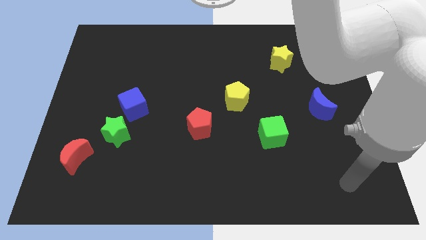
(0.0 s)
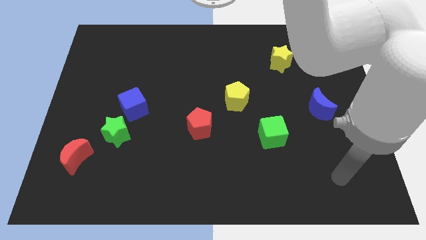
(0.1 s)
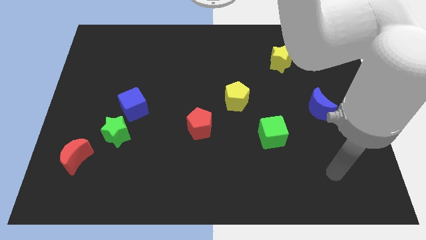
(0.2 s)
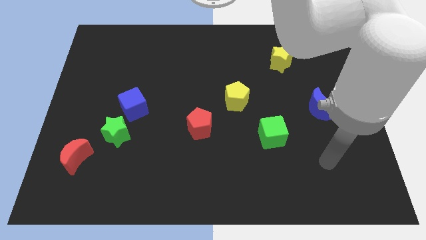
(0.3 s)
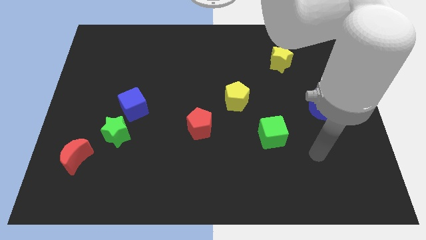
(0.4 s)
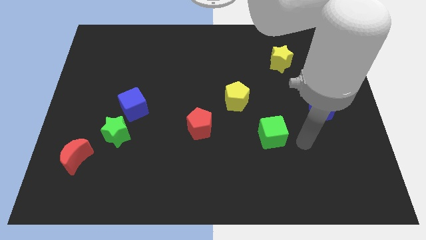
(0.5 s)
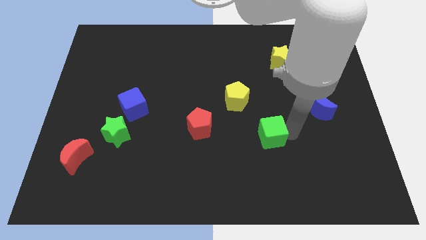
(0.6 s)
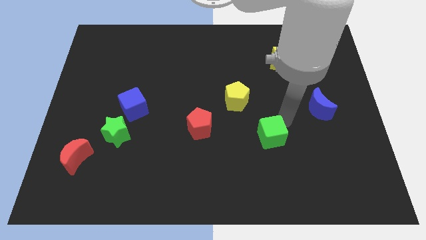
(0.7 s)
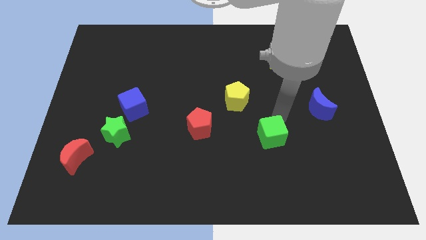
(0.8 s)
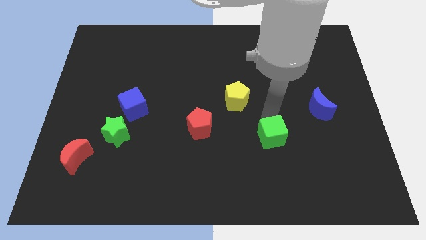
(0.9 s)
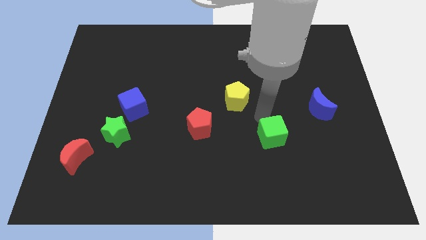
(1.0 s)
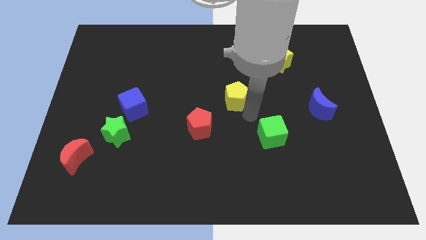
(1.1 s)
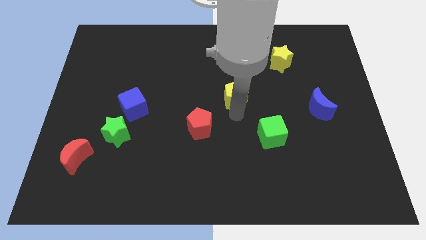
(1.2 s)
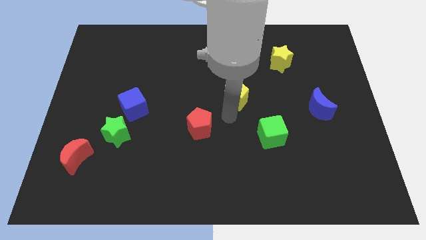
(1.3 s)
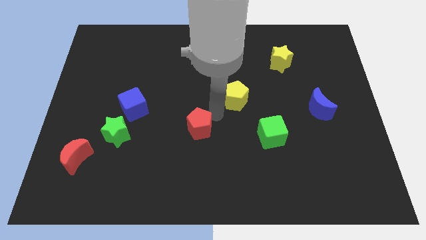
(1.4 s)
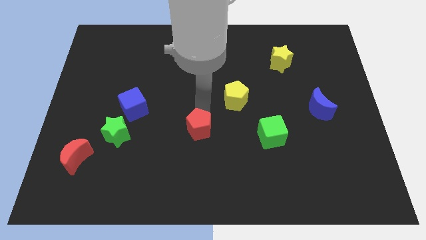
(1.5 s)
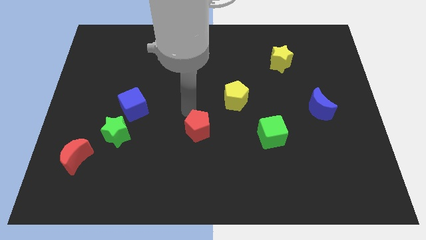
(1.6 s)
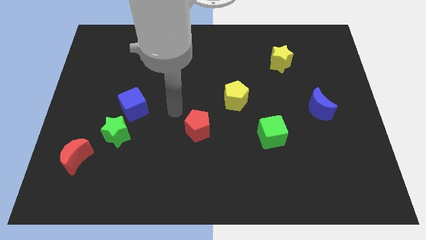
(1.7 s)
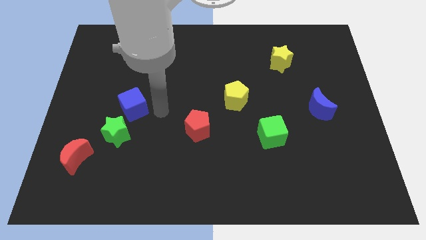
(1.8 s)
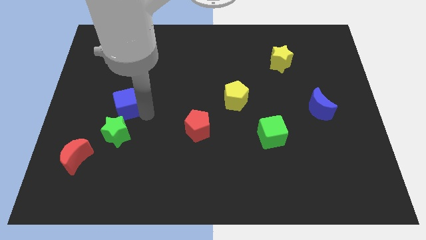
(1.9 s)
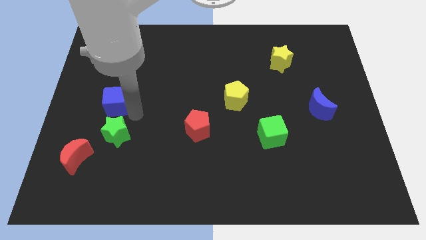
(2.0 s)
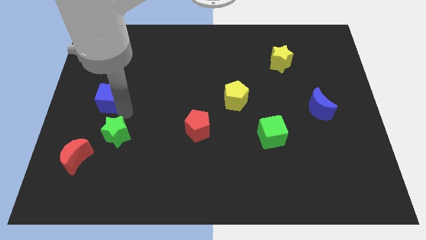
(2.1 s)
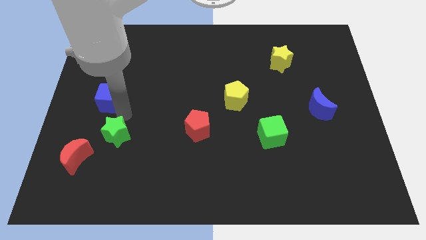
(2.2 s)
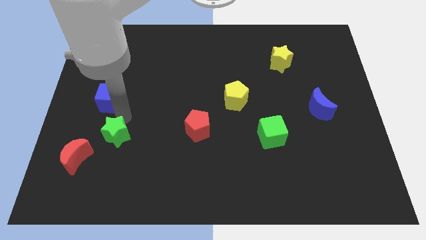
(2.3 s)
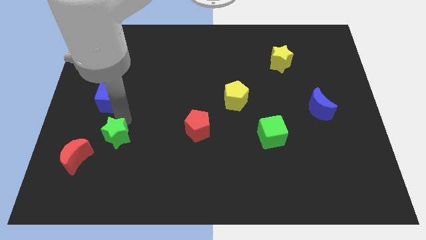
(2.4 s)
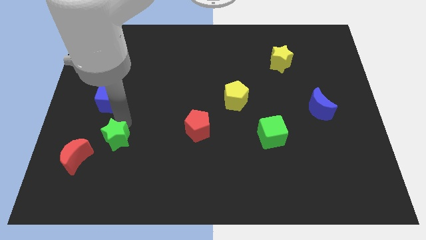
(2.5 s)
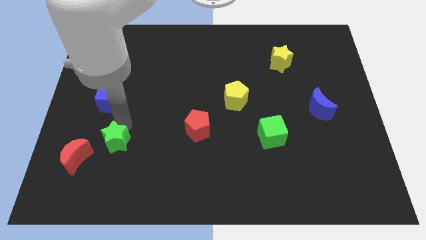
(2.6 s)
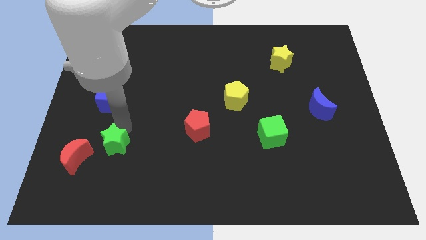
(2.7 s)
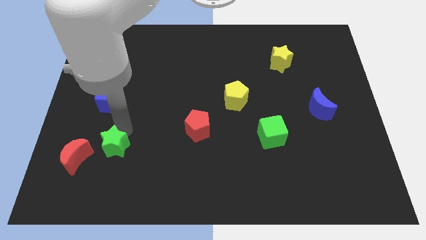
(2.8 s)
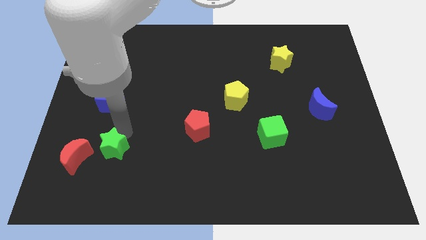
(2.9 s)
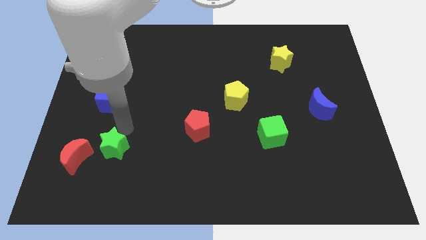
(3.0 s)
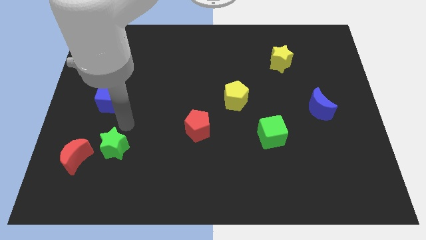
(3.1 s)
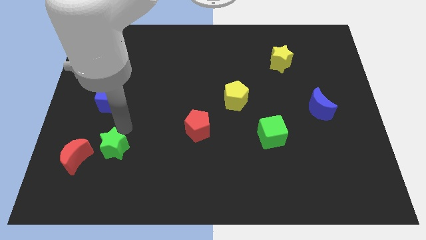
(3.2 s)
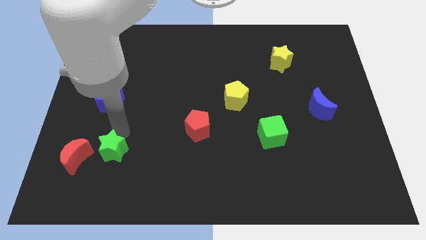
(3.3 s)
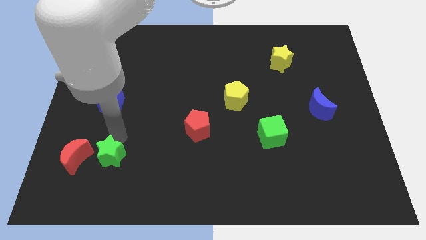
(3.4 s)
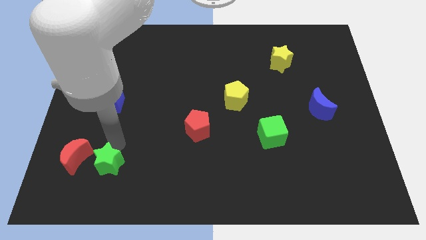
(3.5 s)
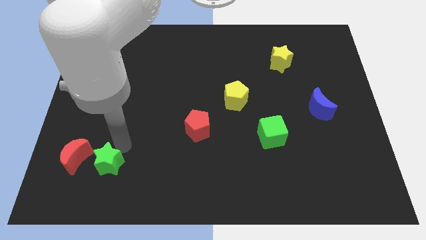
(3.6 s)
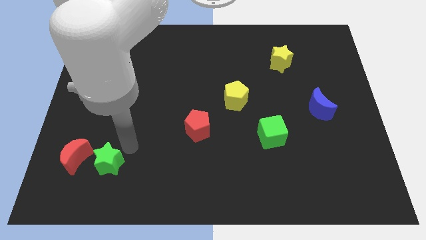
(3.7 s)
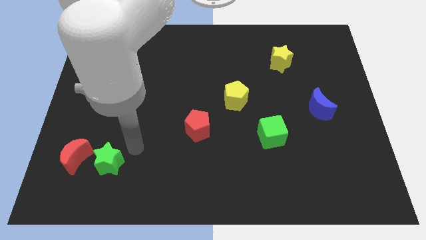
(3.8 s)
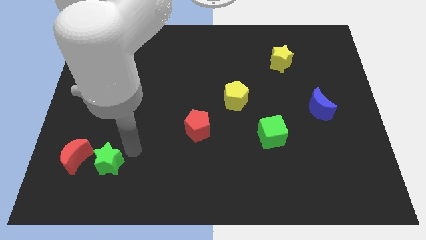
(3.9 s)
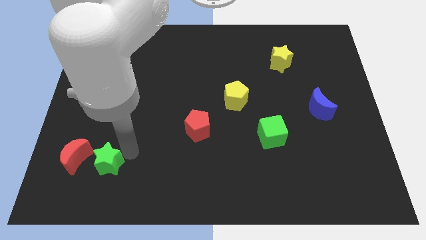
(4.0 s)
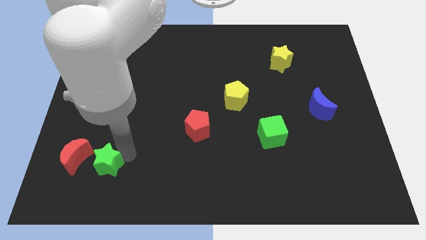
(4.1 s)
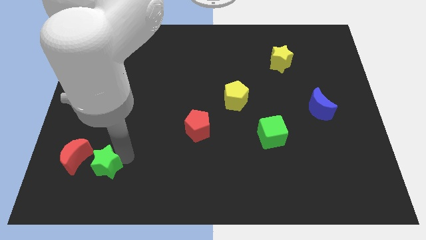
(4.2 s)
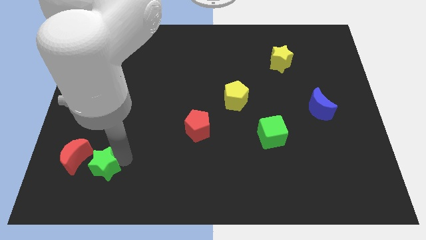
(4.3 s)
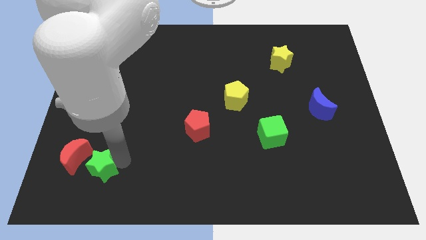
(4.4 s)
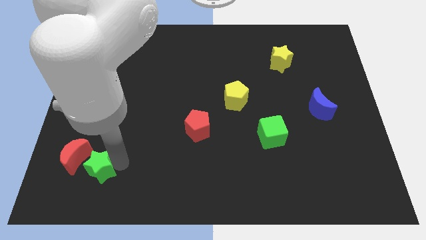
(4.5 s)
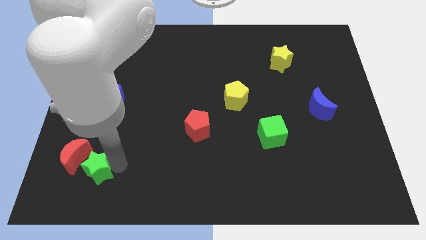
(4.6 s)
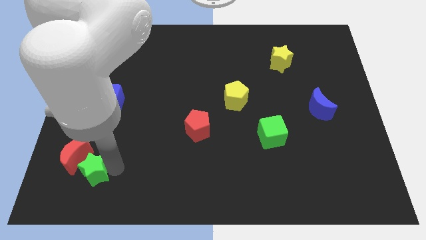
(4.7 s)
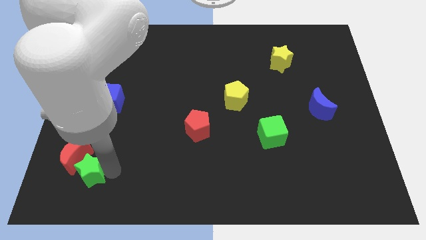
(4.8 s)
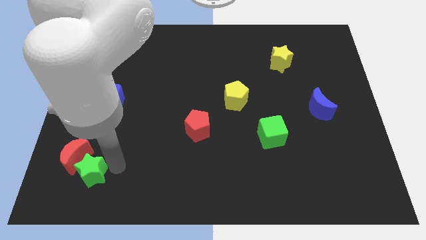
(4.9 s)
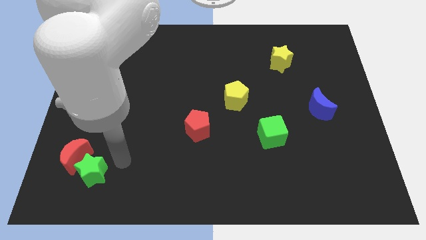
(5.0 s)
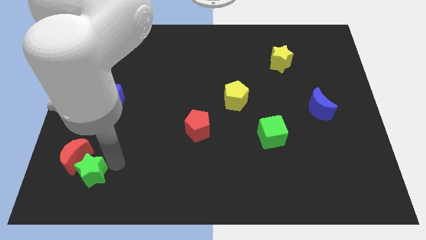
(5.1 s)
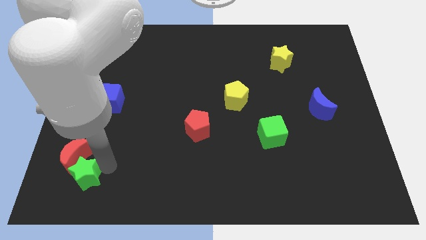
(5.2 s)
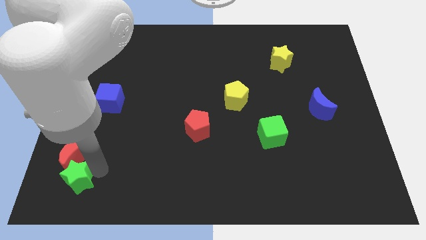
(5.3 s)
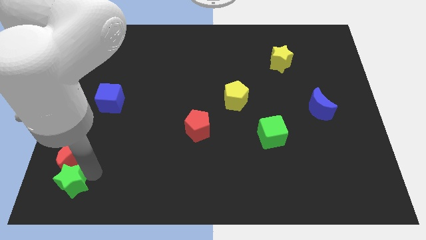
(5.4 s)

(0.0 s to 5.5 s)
push the green star to the bottom left

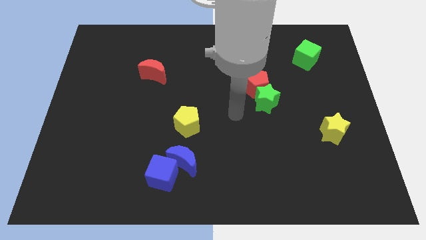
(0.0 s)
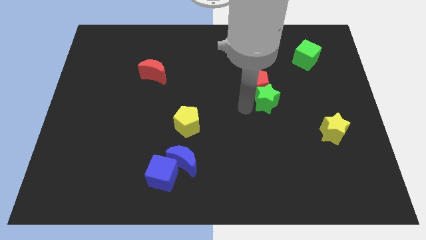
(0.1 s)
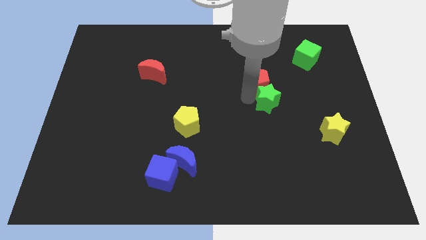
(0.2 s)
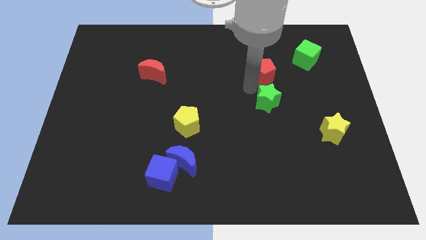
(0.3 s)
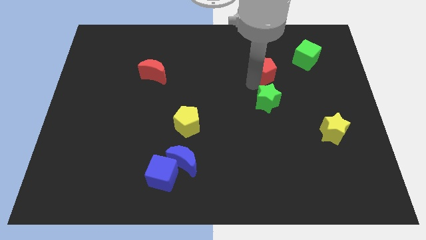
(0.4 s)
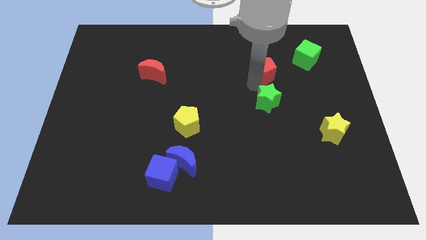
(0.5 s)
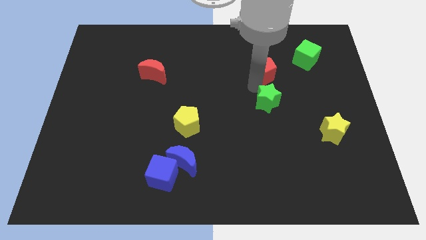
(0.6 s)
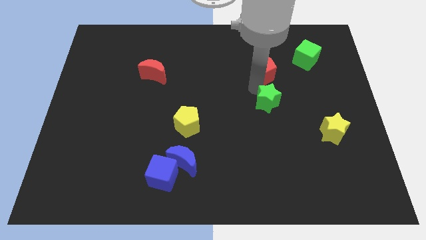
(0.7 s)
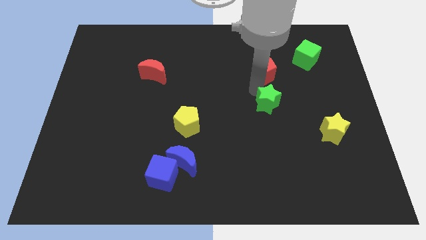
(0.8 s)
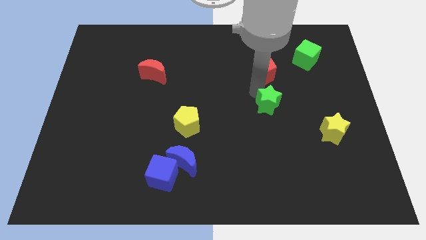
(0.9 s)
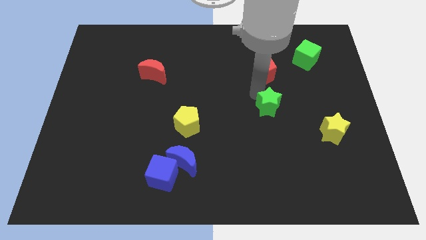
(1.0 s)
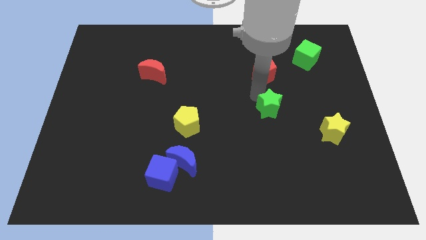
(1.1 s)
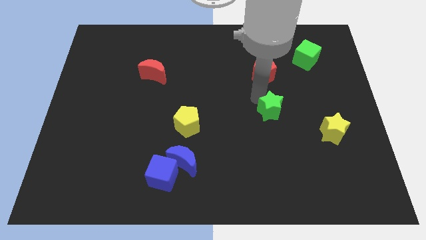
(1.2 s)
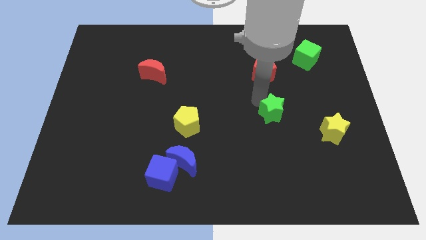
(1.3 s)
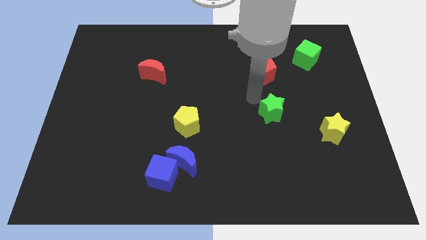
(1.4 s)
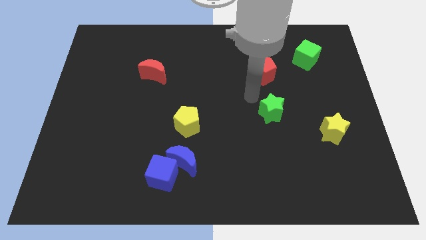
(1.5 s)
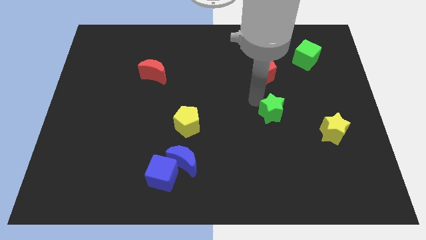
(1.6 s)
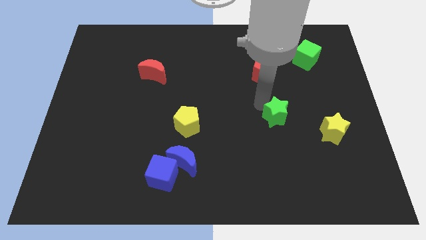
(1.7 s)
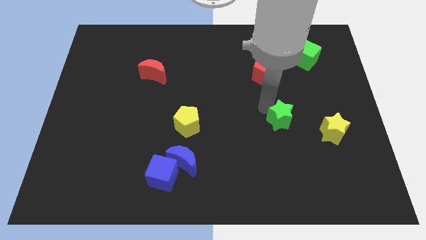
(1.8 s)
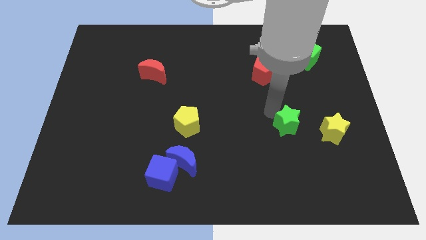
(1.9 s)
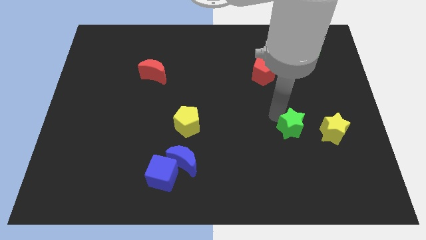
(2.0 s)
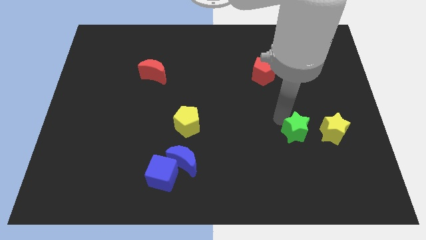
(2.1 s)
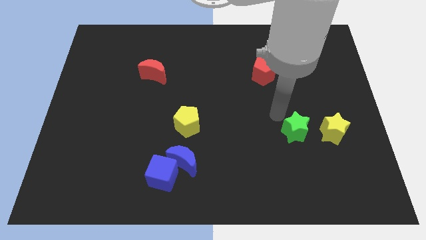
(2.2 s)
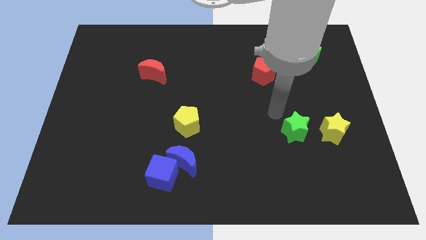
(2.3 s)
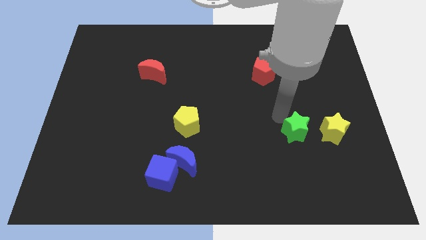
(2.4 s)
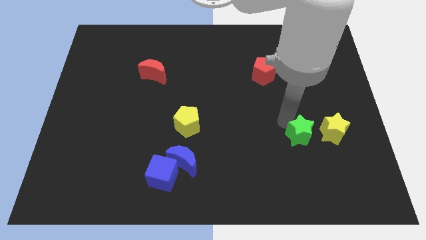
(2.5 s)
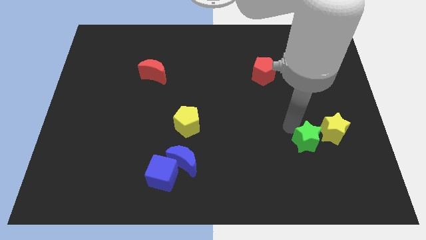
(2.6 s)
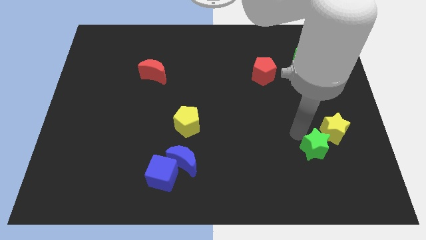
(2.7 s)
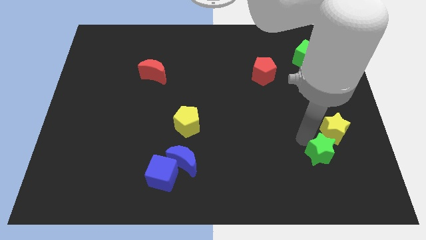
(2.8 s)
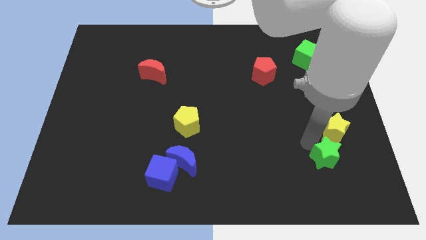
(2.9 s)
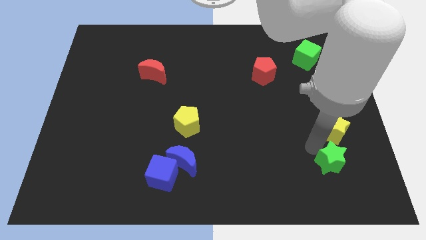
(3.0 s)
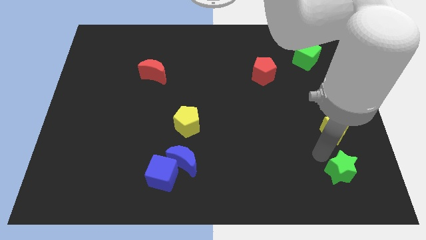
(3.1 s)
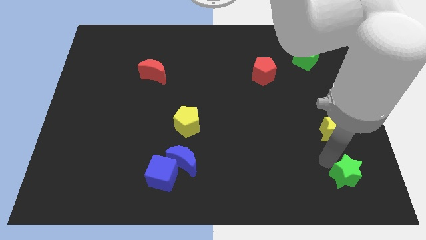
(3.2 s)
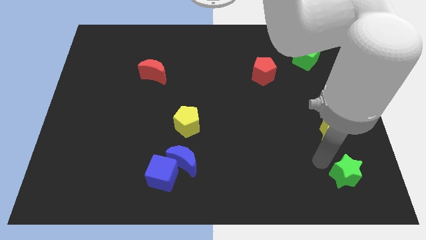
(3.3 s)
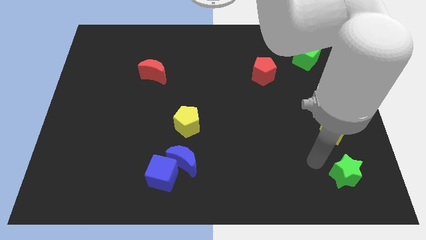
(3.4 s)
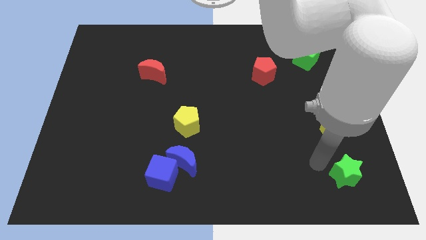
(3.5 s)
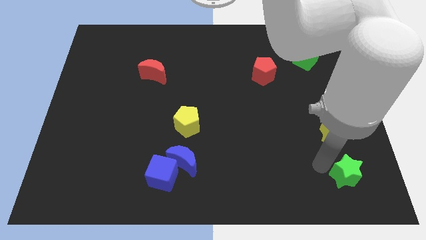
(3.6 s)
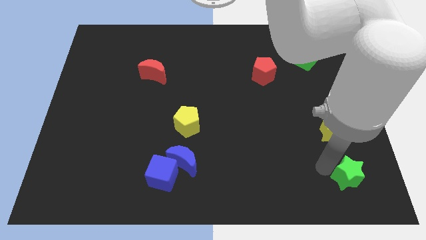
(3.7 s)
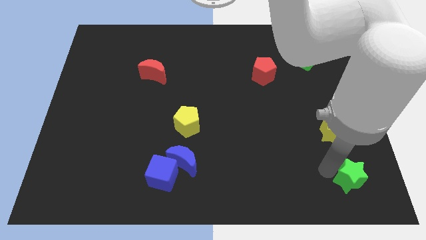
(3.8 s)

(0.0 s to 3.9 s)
slide the green star to the bottom right of the board
